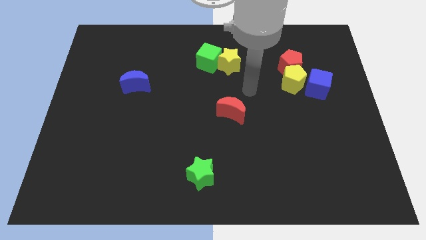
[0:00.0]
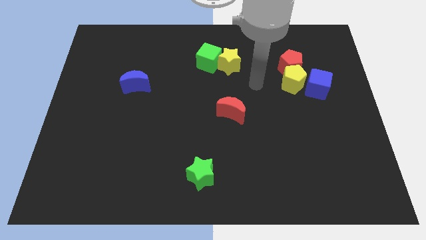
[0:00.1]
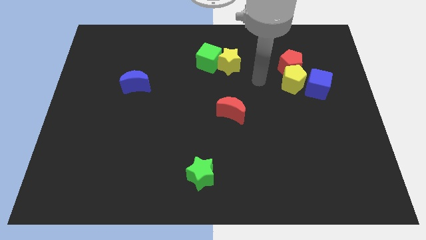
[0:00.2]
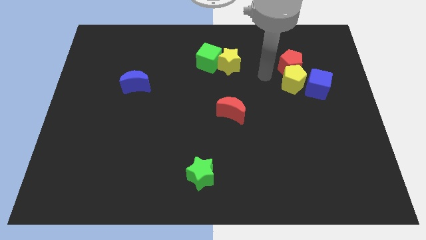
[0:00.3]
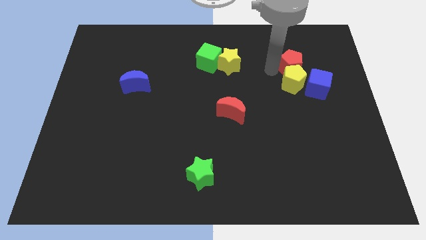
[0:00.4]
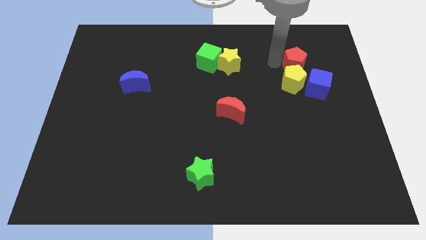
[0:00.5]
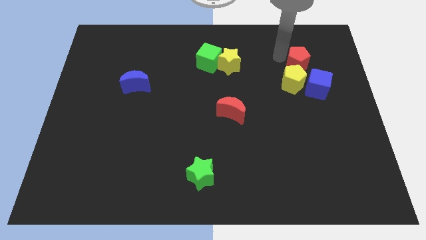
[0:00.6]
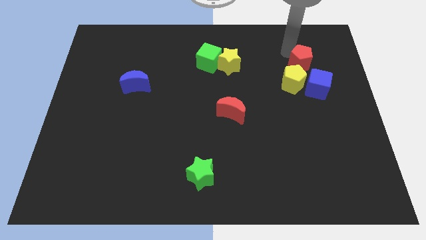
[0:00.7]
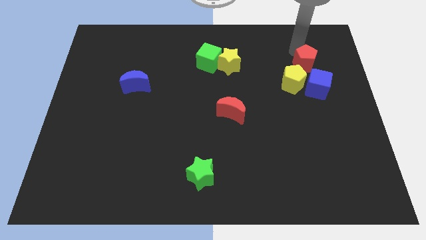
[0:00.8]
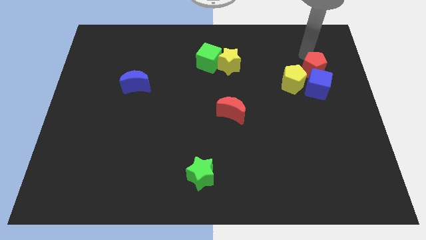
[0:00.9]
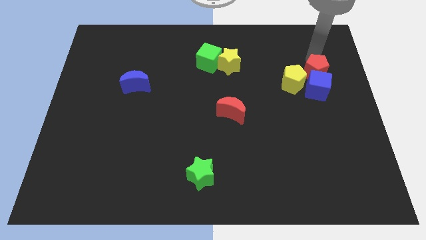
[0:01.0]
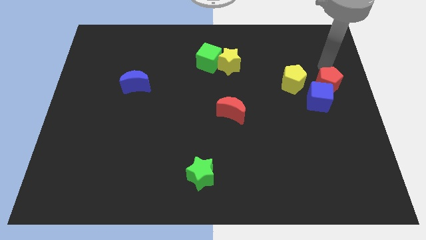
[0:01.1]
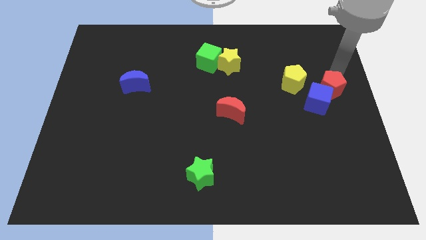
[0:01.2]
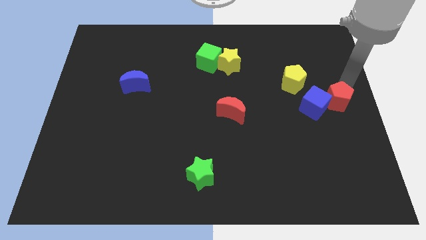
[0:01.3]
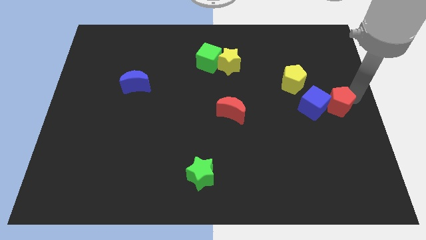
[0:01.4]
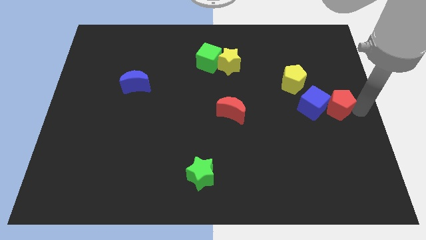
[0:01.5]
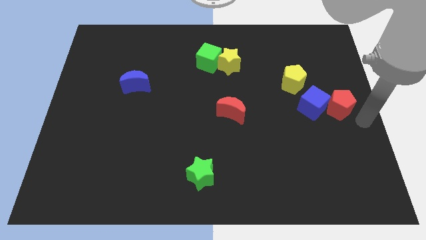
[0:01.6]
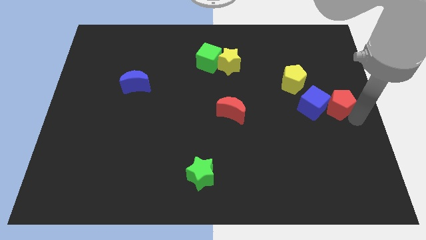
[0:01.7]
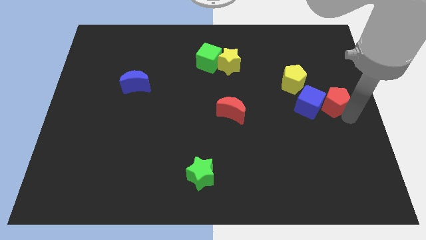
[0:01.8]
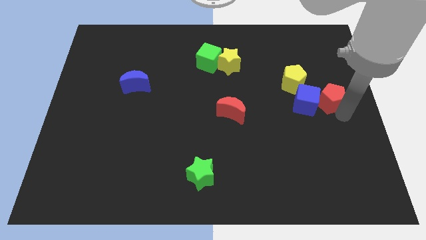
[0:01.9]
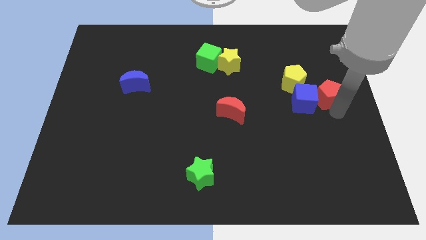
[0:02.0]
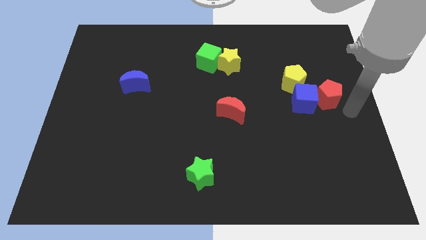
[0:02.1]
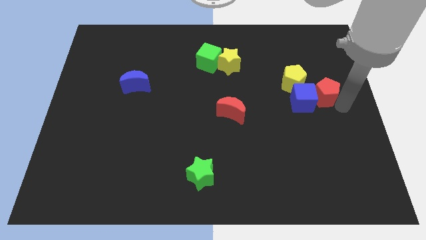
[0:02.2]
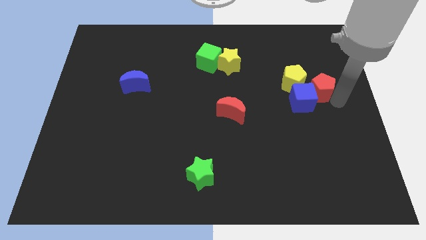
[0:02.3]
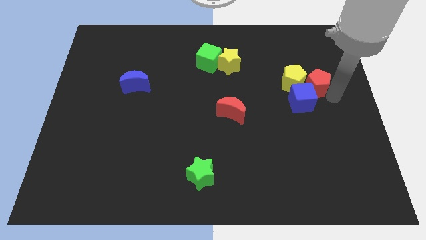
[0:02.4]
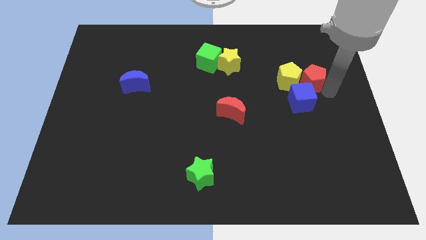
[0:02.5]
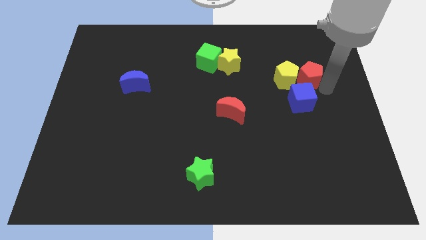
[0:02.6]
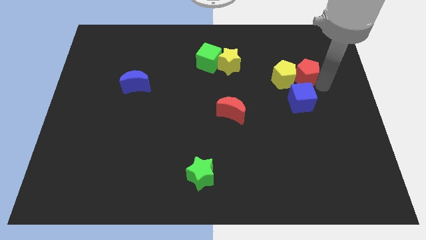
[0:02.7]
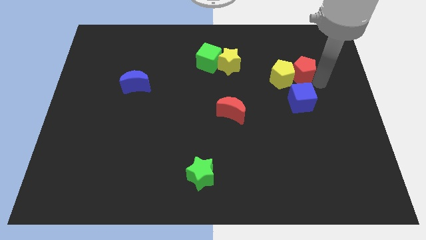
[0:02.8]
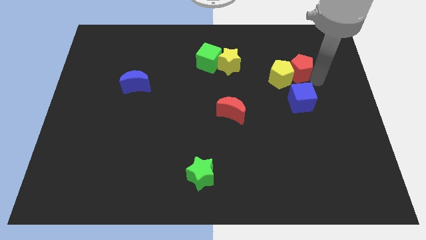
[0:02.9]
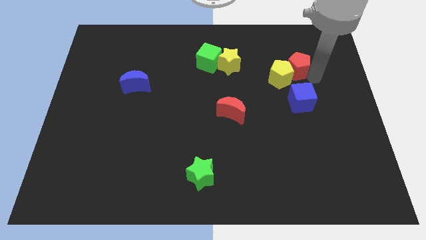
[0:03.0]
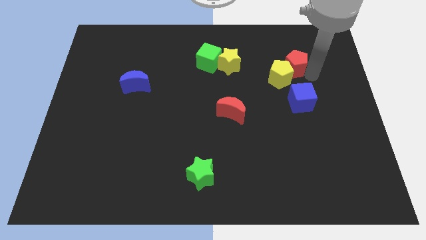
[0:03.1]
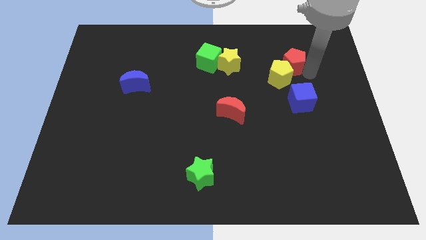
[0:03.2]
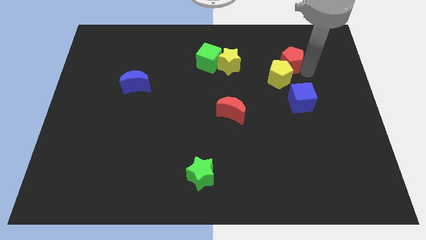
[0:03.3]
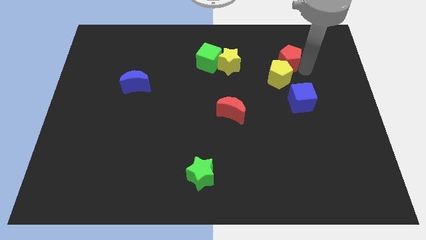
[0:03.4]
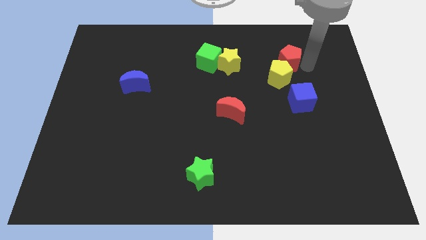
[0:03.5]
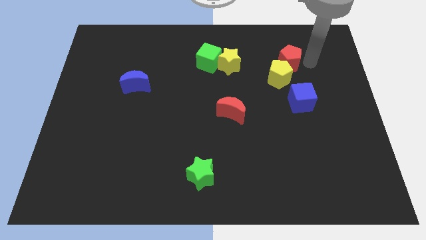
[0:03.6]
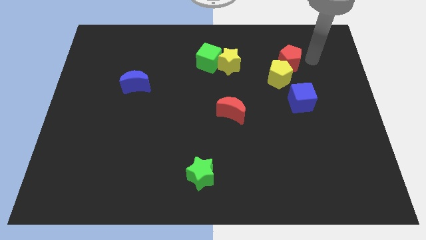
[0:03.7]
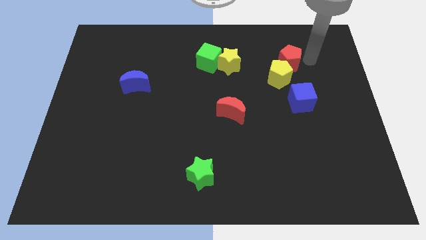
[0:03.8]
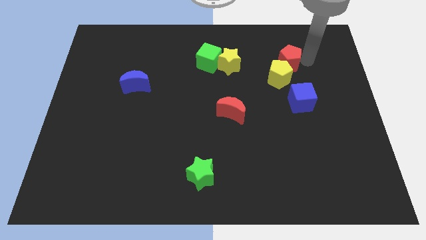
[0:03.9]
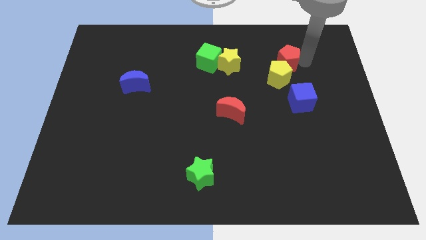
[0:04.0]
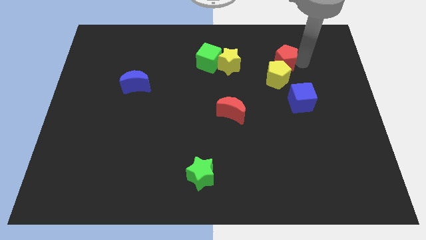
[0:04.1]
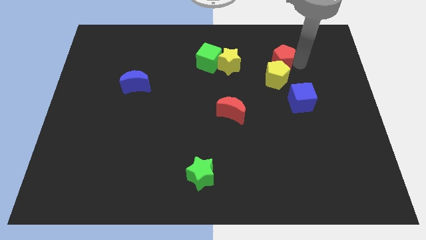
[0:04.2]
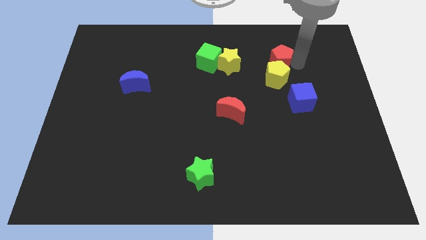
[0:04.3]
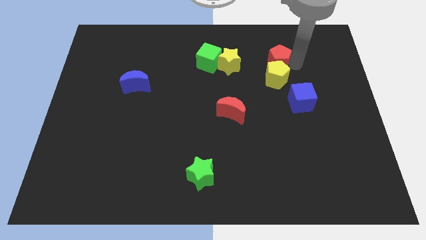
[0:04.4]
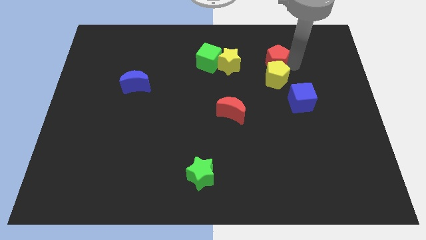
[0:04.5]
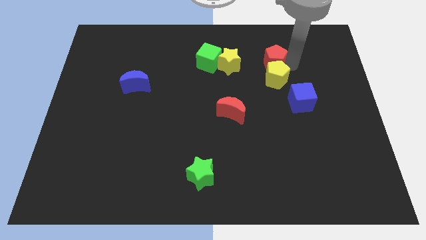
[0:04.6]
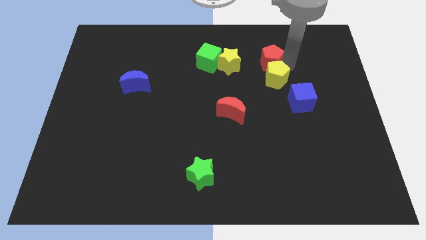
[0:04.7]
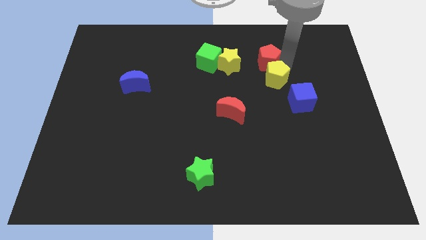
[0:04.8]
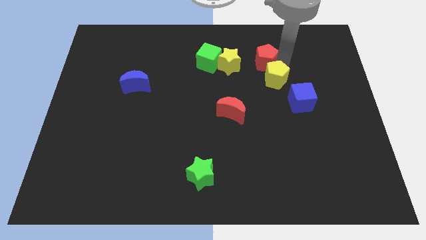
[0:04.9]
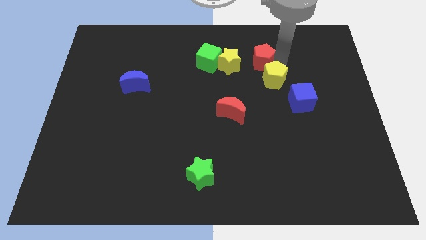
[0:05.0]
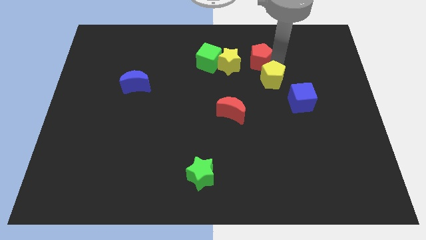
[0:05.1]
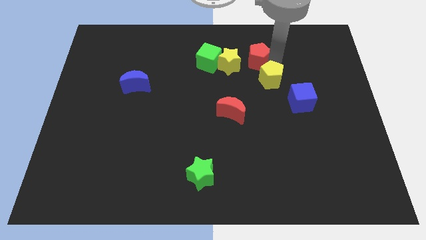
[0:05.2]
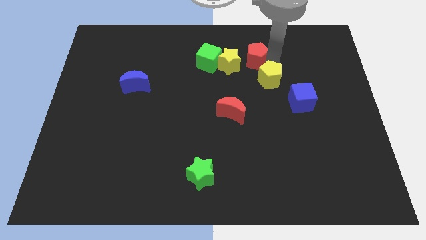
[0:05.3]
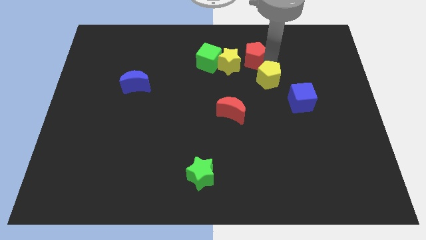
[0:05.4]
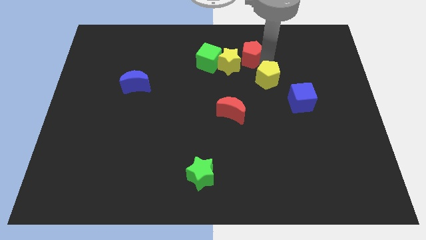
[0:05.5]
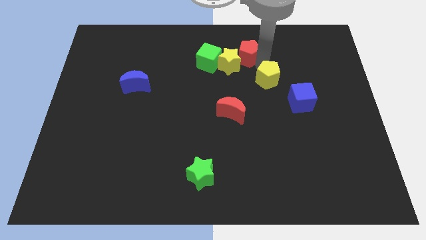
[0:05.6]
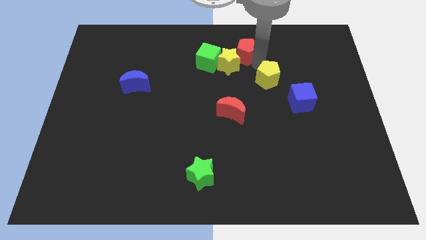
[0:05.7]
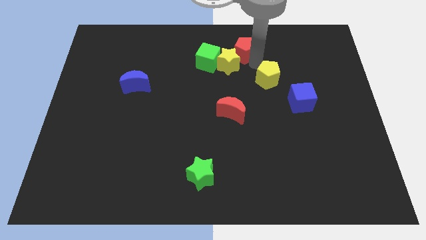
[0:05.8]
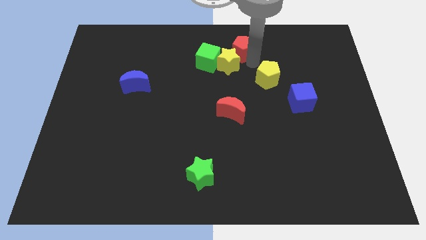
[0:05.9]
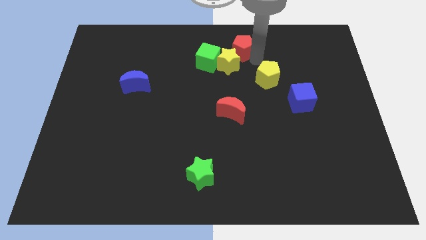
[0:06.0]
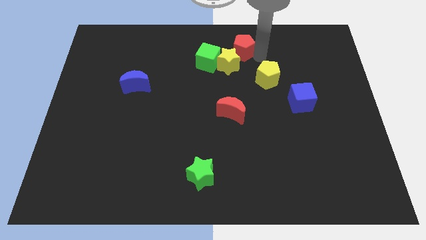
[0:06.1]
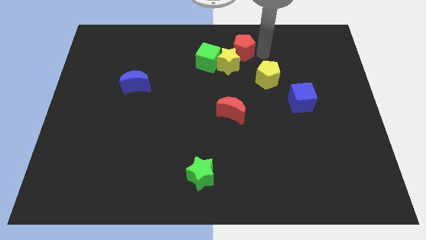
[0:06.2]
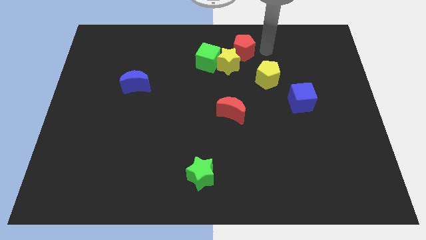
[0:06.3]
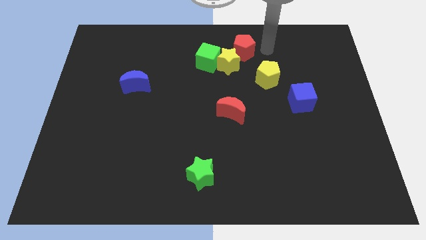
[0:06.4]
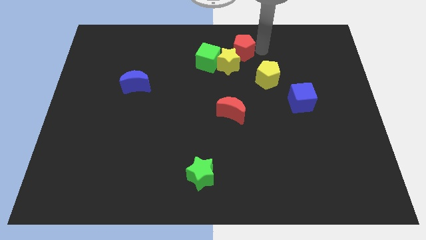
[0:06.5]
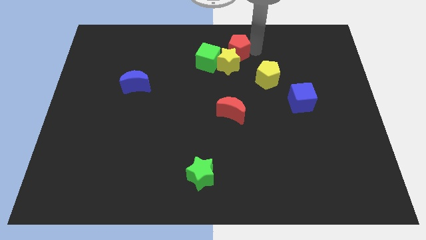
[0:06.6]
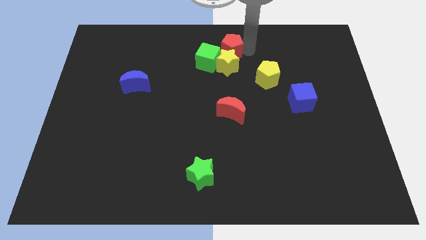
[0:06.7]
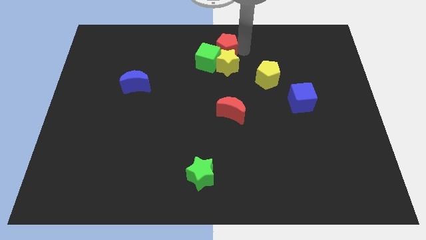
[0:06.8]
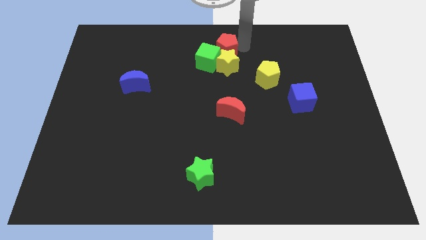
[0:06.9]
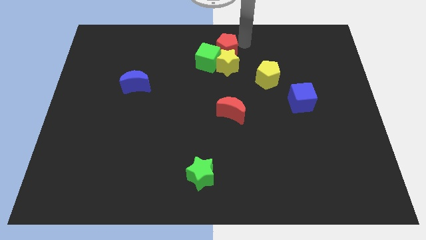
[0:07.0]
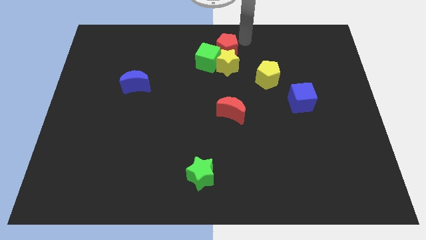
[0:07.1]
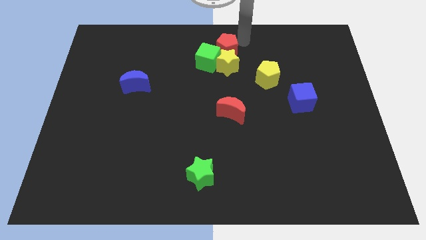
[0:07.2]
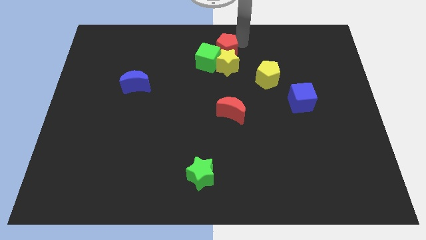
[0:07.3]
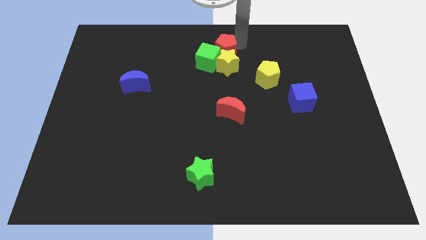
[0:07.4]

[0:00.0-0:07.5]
slide the red pentagon to the green cube

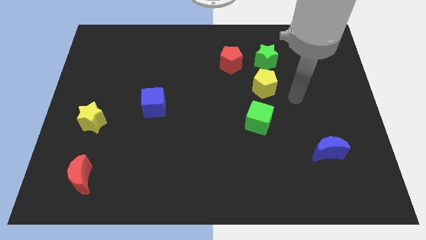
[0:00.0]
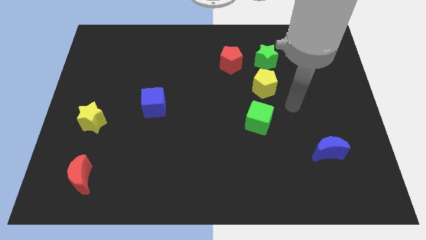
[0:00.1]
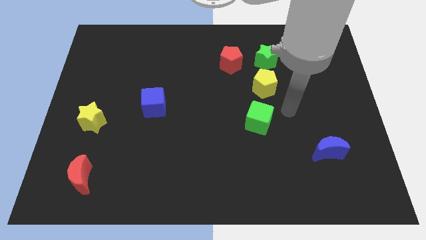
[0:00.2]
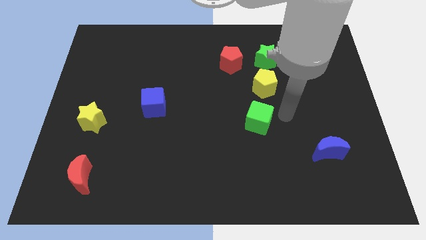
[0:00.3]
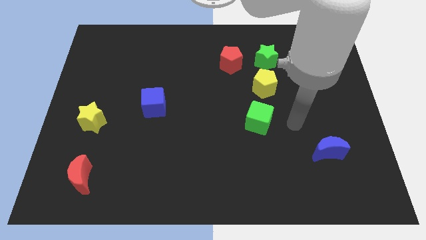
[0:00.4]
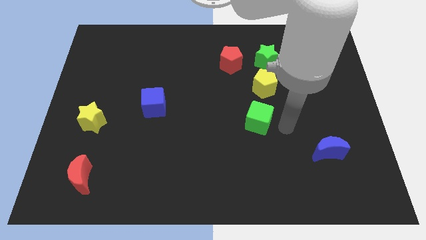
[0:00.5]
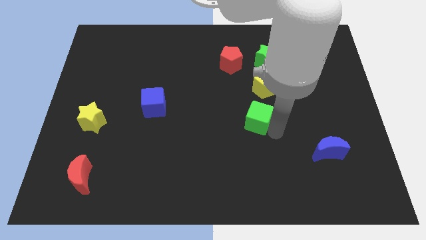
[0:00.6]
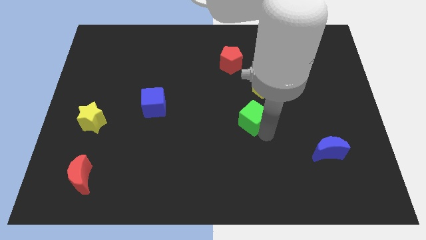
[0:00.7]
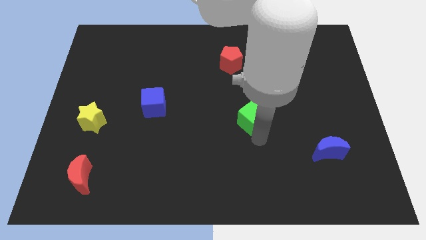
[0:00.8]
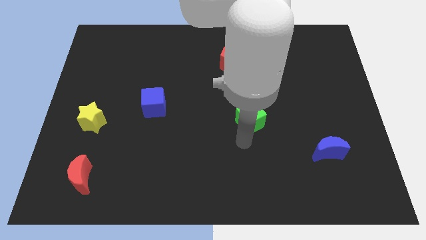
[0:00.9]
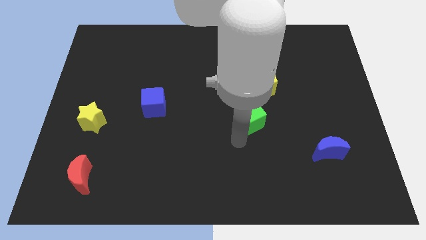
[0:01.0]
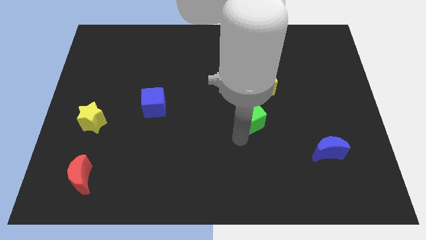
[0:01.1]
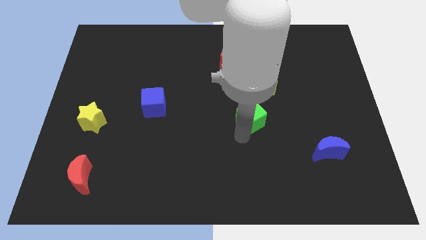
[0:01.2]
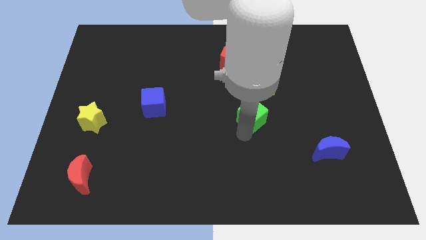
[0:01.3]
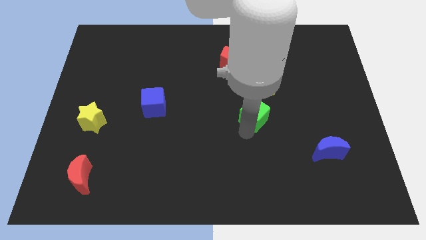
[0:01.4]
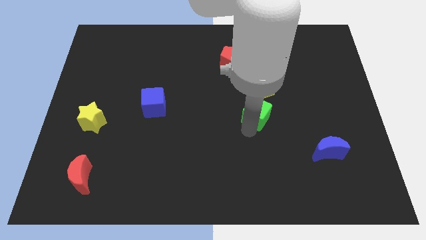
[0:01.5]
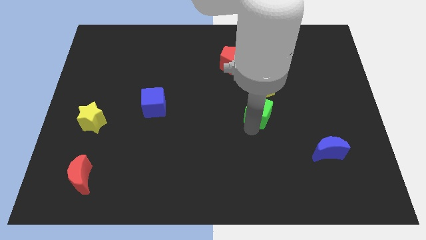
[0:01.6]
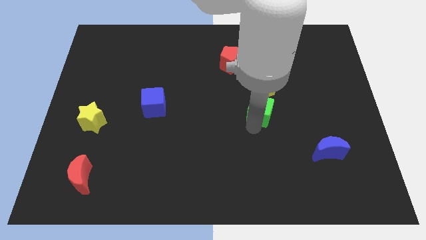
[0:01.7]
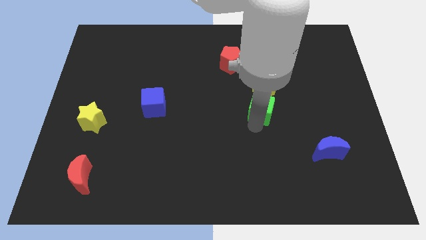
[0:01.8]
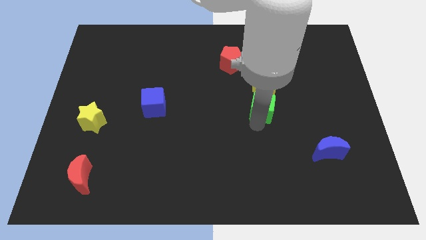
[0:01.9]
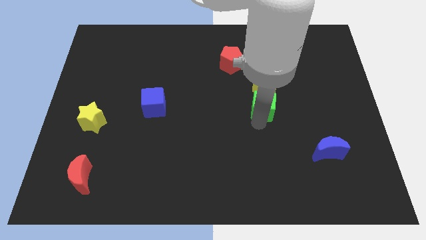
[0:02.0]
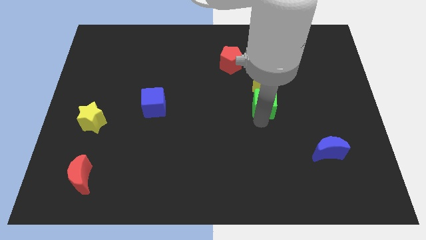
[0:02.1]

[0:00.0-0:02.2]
put the green cube close to the yellow pentagon
